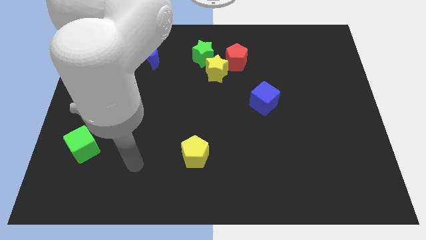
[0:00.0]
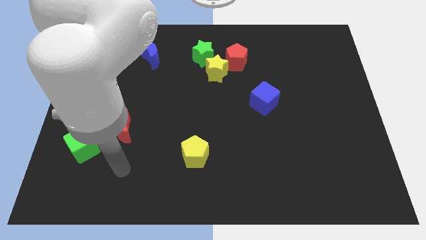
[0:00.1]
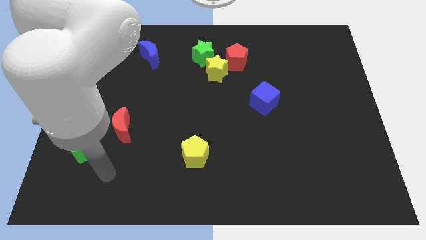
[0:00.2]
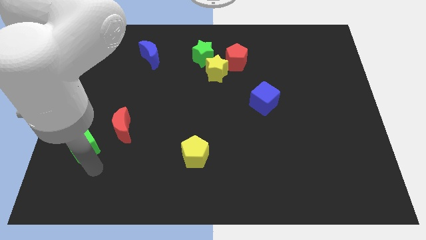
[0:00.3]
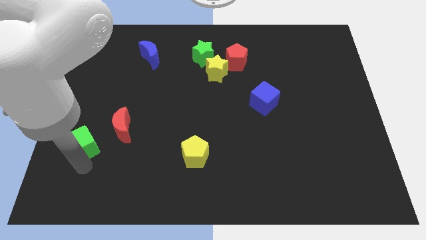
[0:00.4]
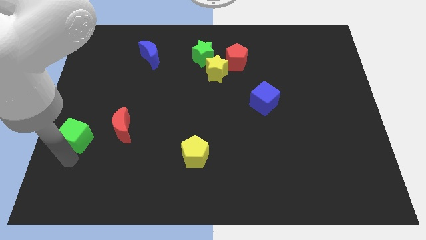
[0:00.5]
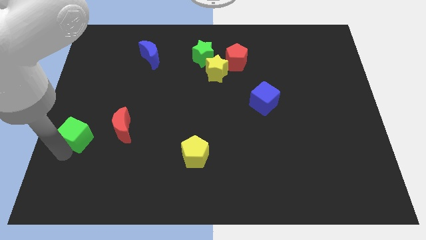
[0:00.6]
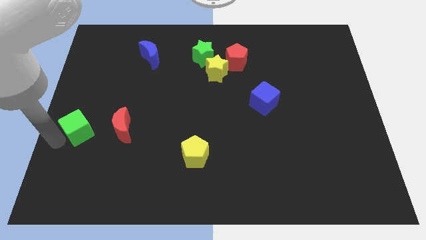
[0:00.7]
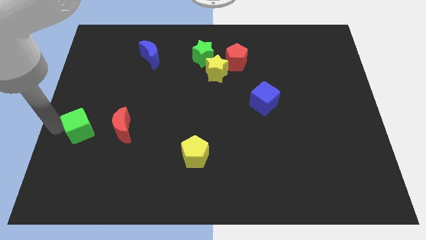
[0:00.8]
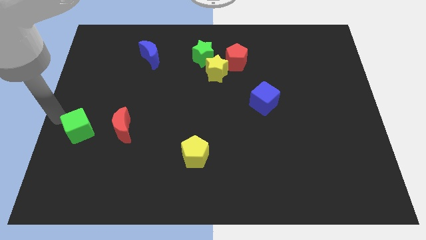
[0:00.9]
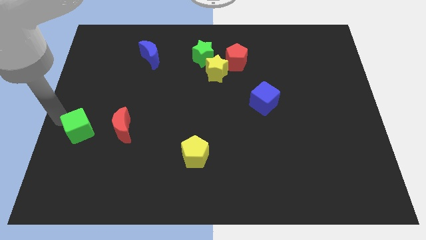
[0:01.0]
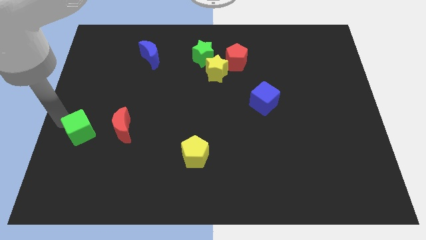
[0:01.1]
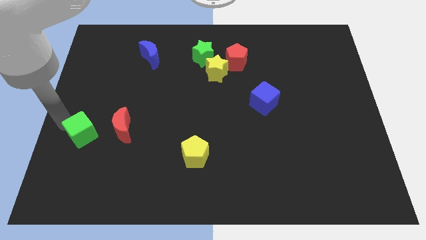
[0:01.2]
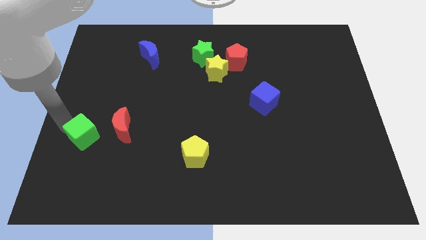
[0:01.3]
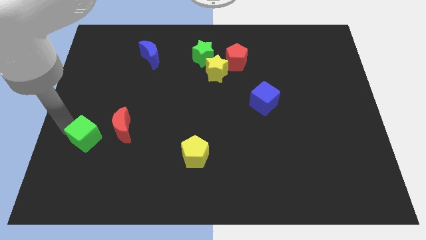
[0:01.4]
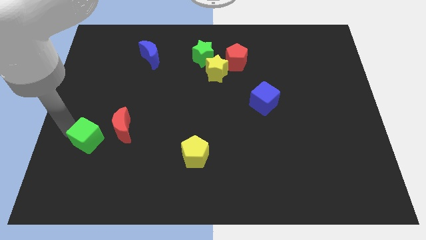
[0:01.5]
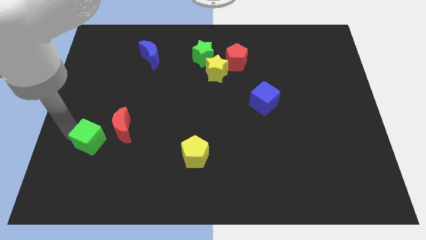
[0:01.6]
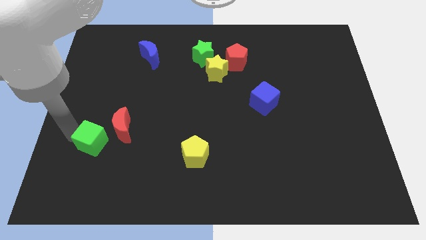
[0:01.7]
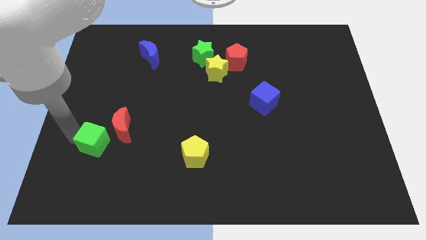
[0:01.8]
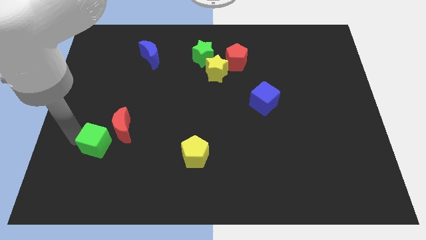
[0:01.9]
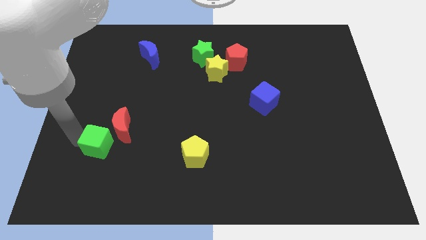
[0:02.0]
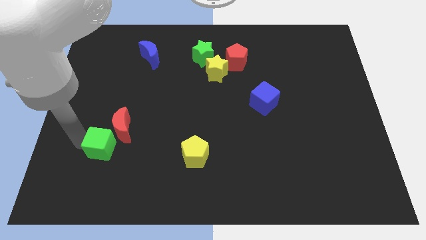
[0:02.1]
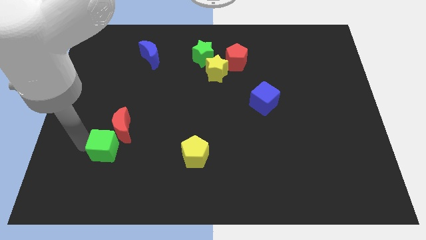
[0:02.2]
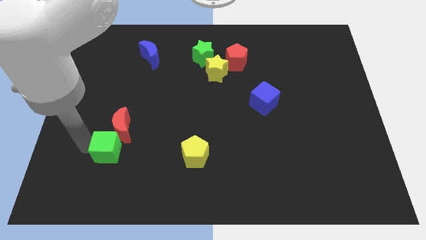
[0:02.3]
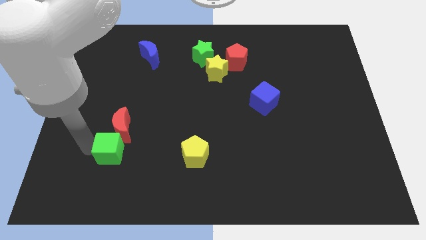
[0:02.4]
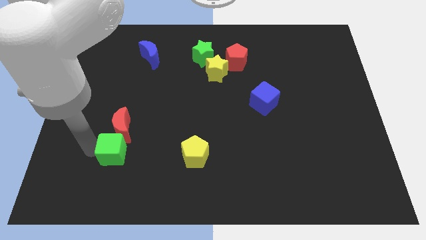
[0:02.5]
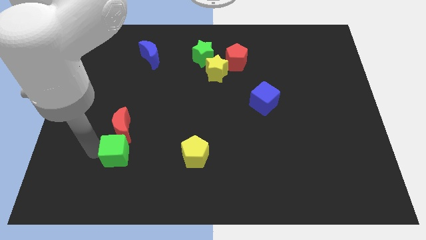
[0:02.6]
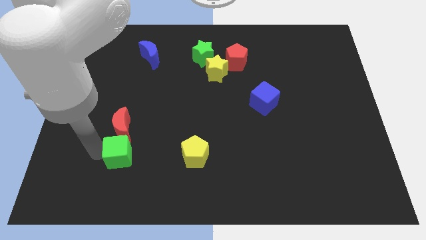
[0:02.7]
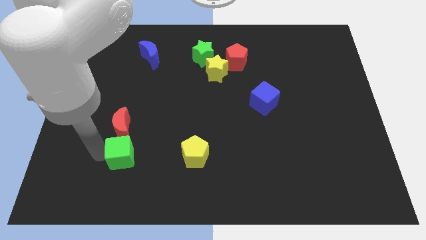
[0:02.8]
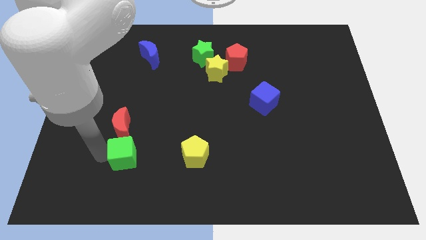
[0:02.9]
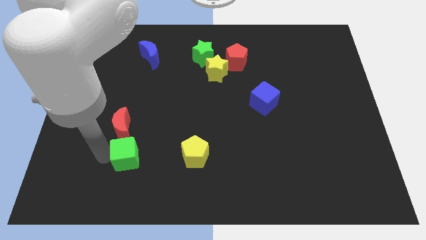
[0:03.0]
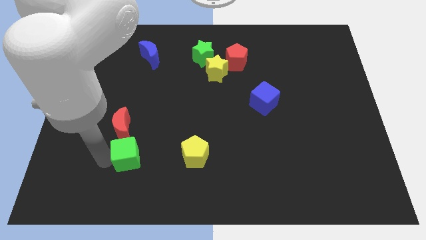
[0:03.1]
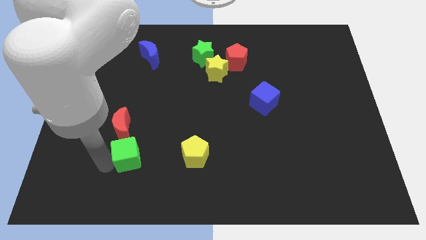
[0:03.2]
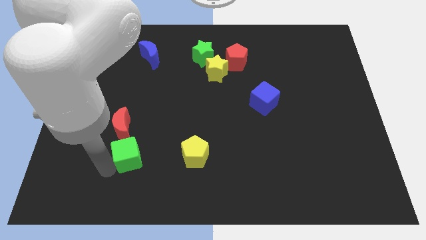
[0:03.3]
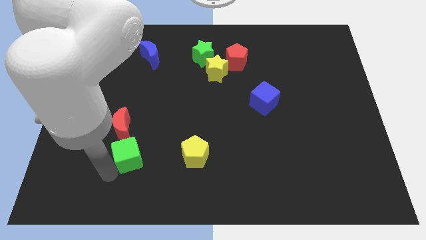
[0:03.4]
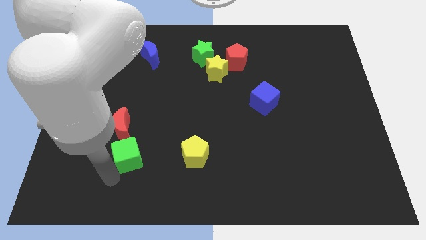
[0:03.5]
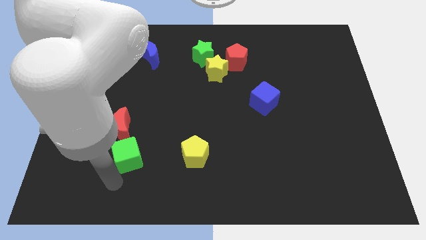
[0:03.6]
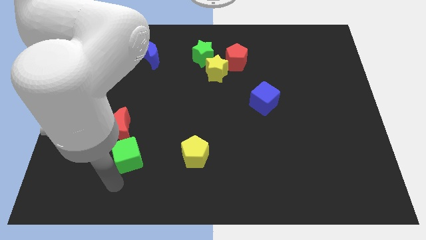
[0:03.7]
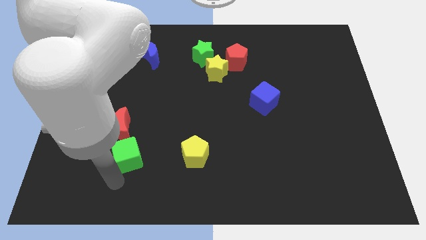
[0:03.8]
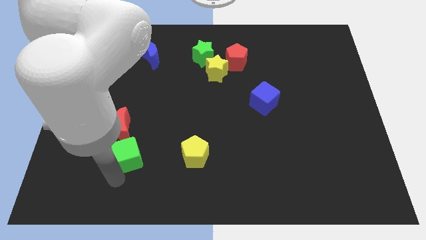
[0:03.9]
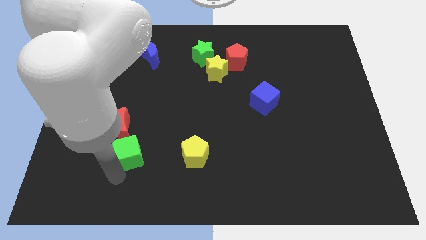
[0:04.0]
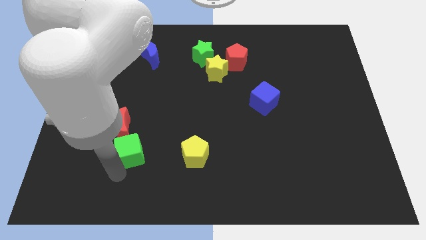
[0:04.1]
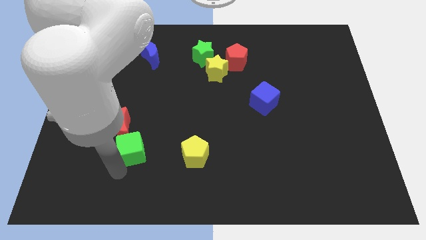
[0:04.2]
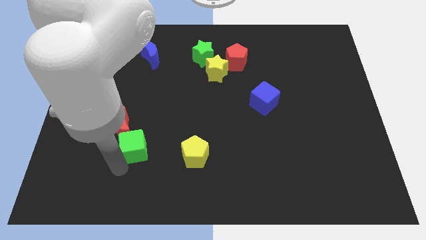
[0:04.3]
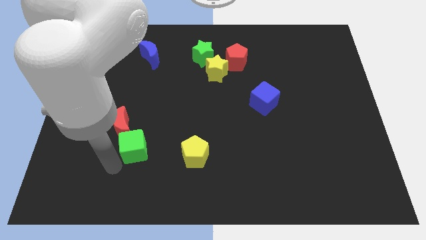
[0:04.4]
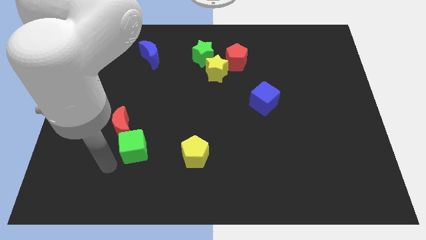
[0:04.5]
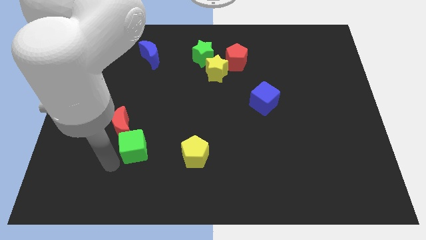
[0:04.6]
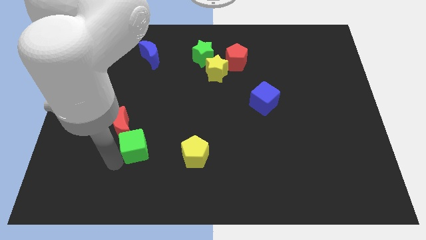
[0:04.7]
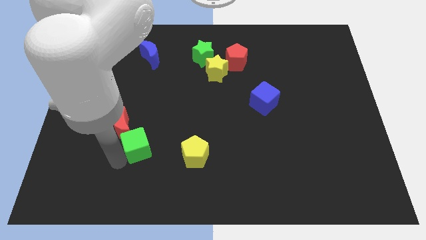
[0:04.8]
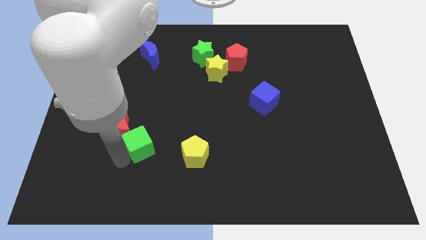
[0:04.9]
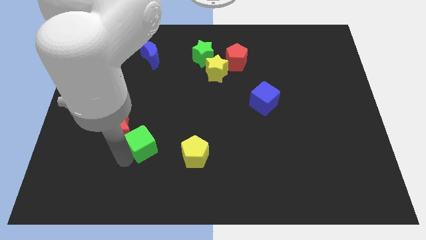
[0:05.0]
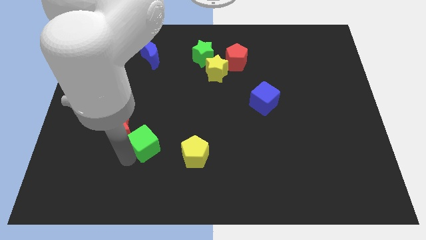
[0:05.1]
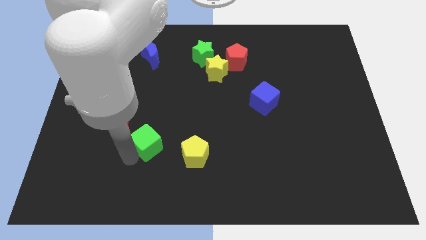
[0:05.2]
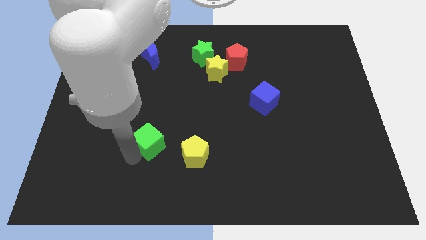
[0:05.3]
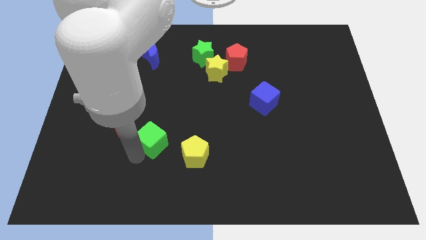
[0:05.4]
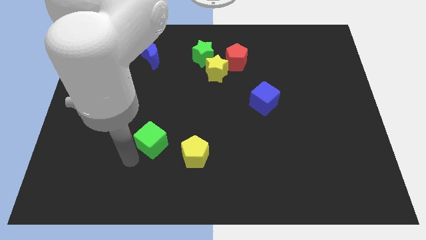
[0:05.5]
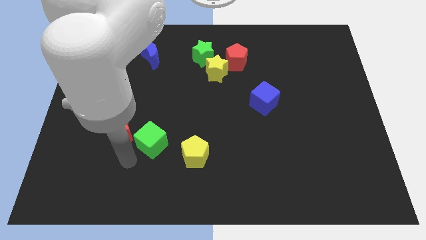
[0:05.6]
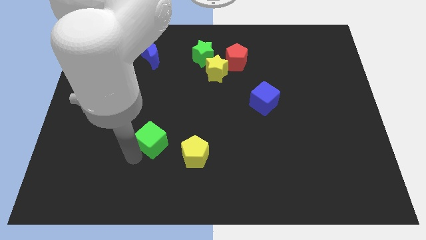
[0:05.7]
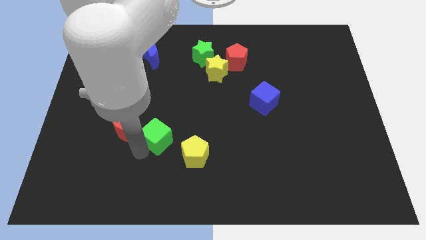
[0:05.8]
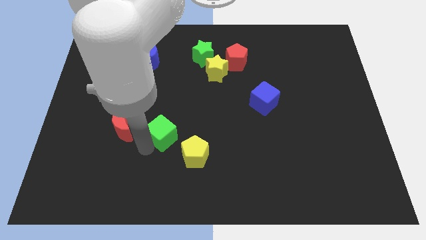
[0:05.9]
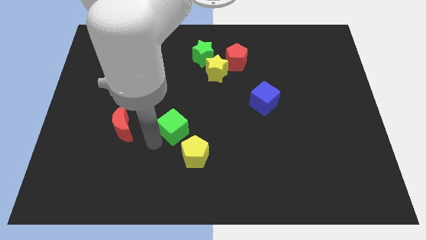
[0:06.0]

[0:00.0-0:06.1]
push the green cube to the middle of the board
